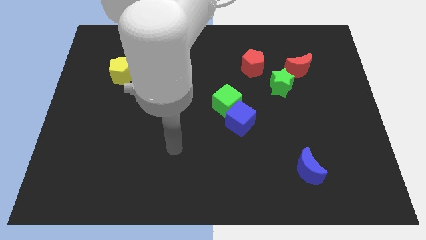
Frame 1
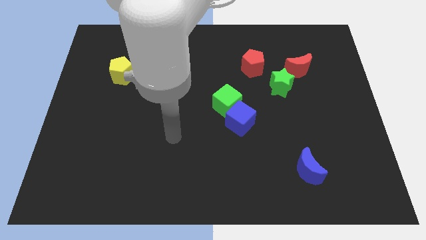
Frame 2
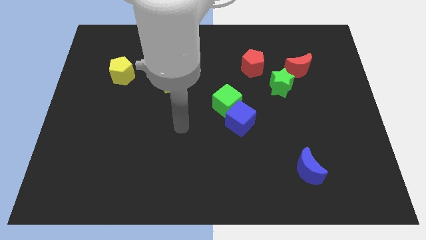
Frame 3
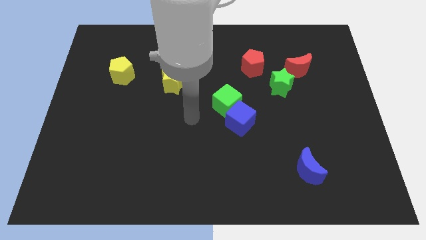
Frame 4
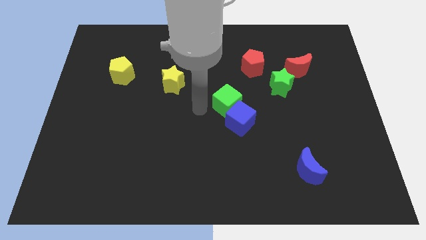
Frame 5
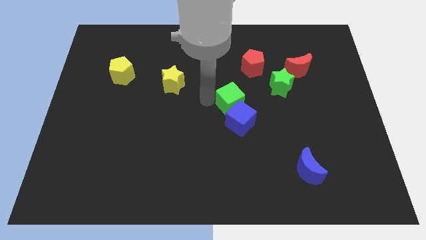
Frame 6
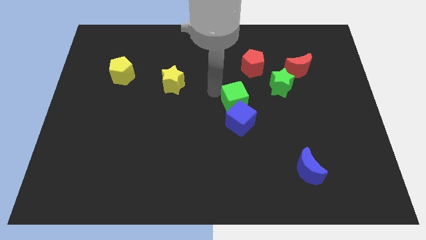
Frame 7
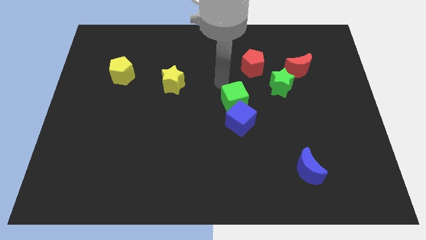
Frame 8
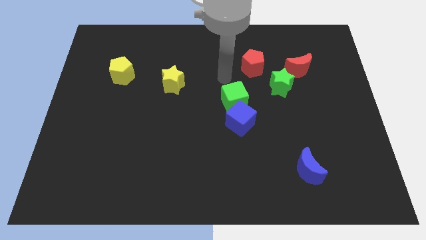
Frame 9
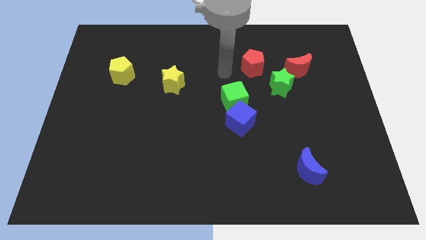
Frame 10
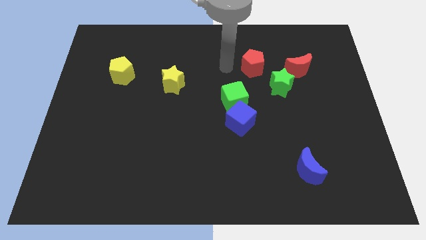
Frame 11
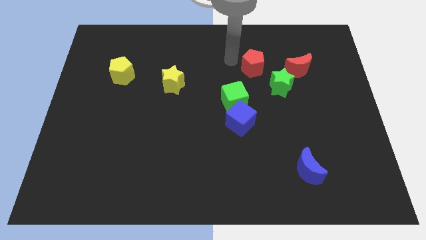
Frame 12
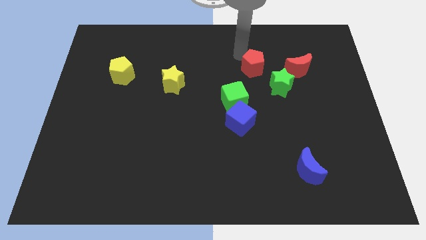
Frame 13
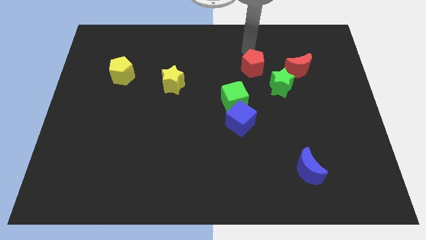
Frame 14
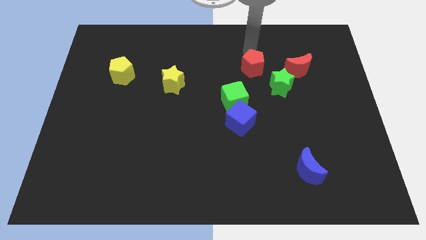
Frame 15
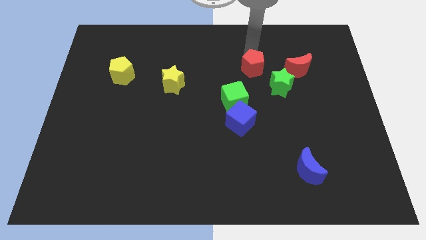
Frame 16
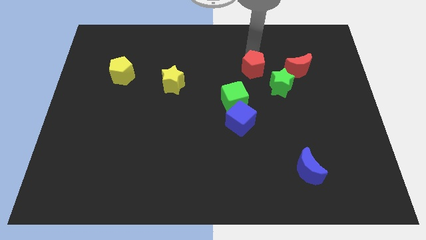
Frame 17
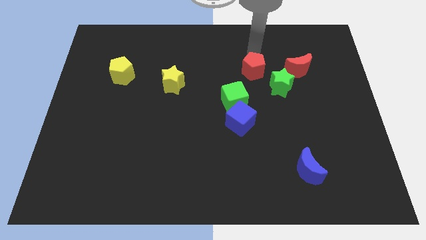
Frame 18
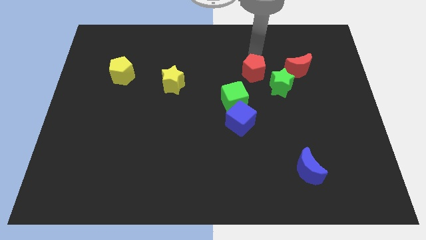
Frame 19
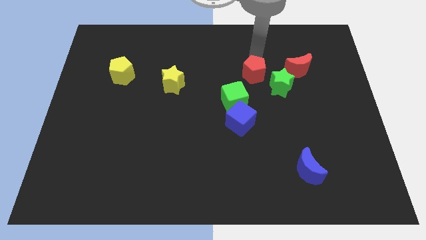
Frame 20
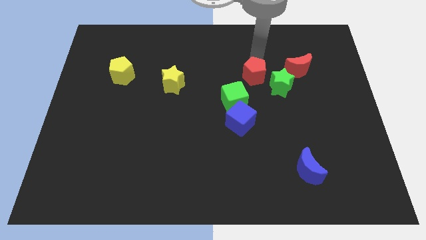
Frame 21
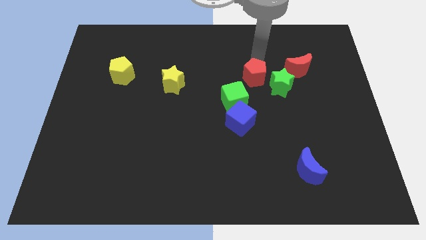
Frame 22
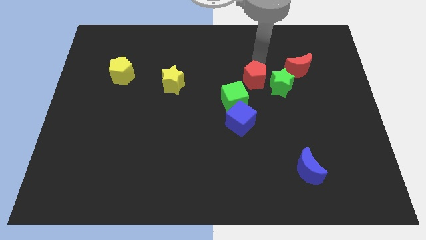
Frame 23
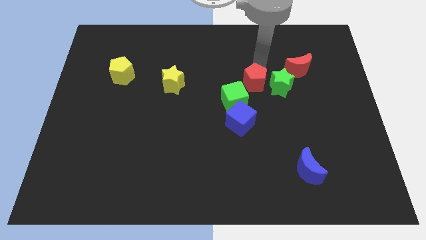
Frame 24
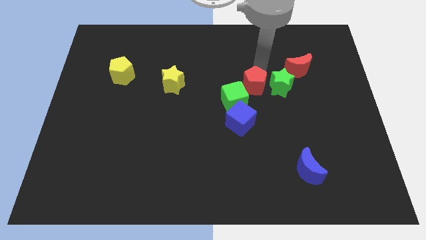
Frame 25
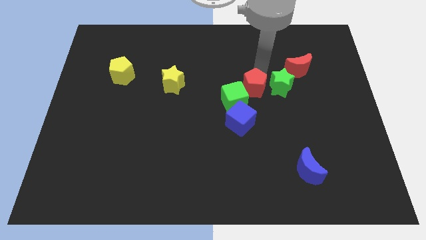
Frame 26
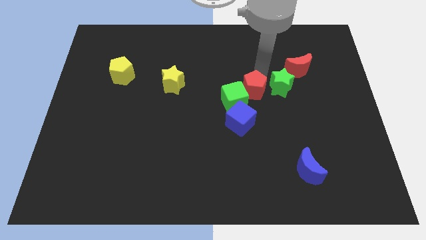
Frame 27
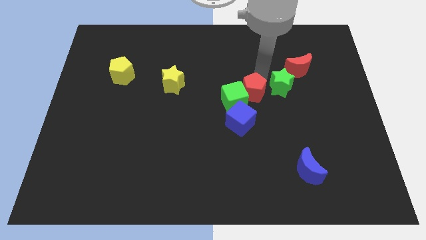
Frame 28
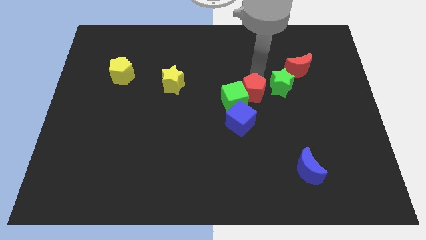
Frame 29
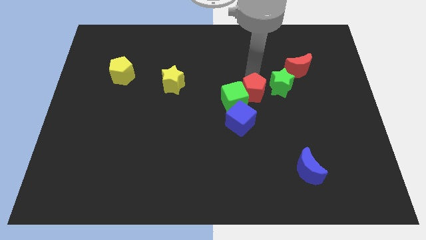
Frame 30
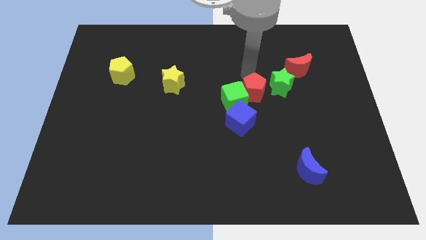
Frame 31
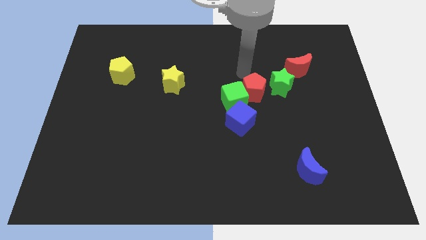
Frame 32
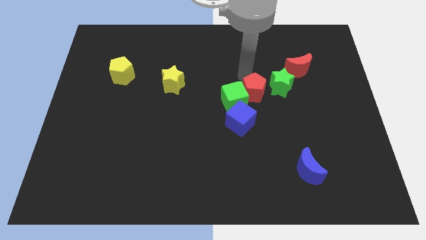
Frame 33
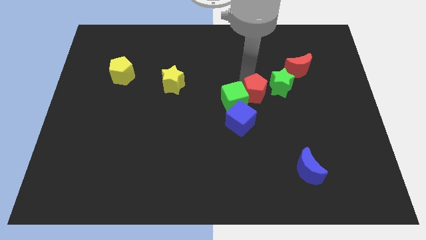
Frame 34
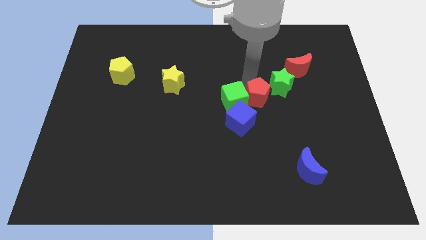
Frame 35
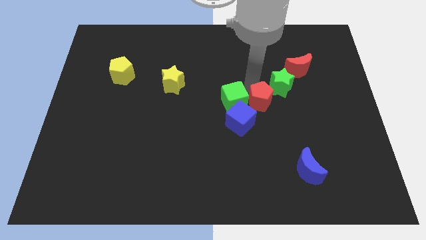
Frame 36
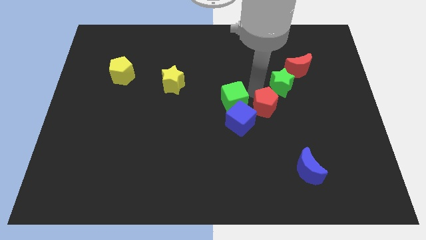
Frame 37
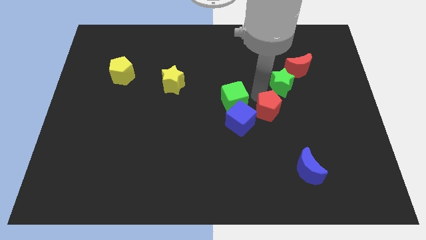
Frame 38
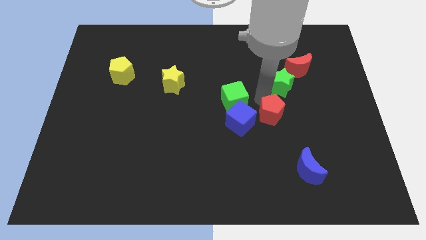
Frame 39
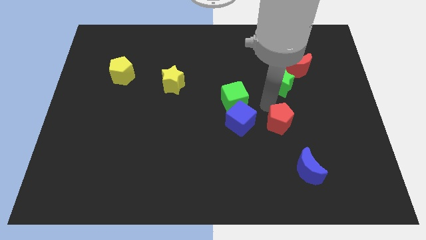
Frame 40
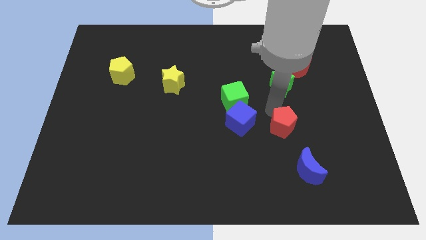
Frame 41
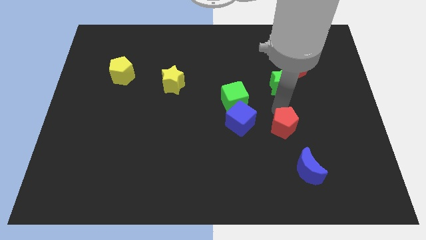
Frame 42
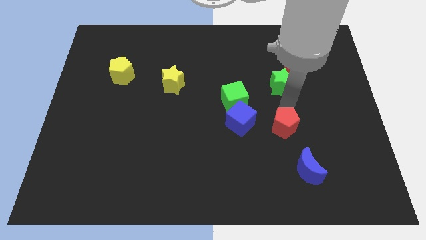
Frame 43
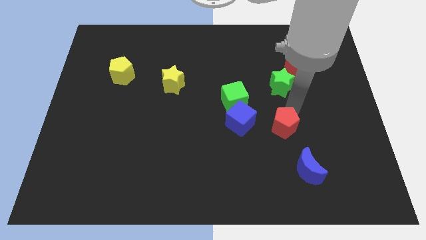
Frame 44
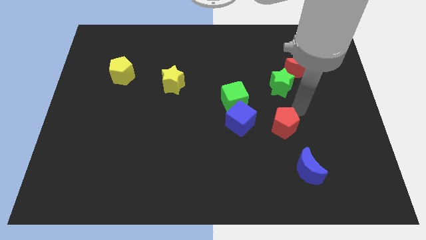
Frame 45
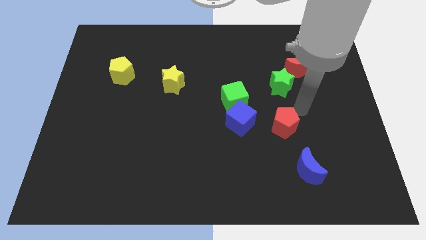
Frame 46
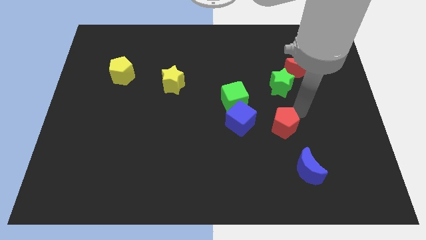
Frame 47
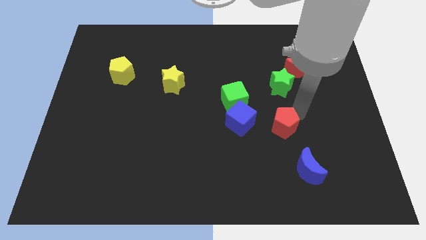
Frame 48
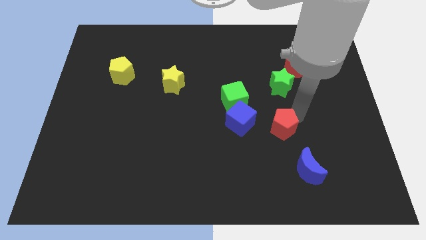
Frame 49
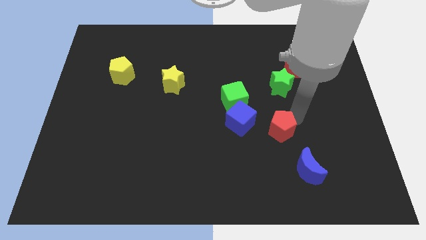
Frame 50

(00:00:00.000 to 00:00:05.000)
push the red pentagon to the bottom right of the blue cube

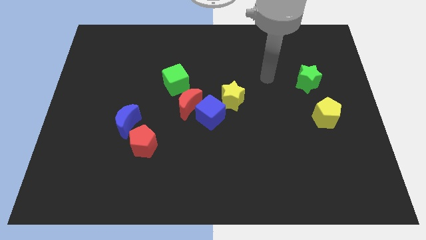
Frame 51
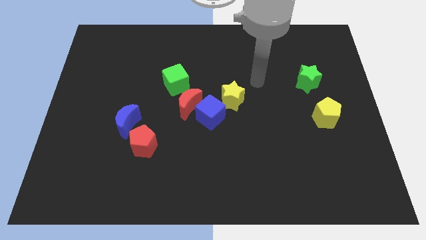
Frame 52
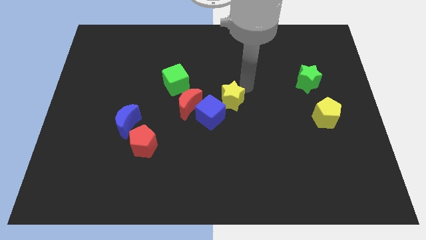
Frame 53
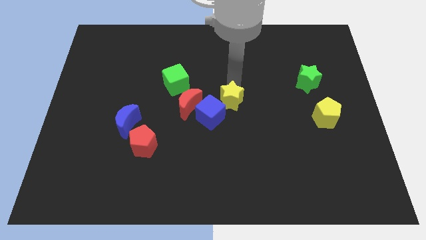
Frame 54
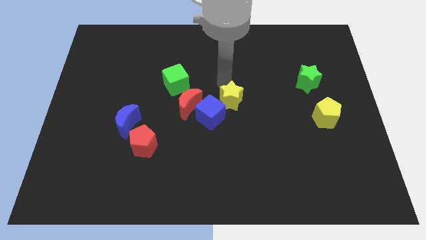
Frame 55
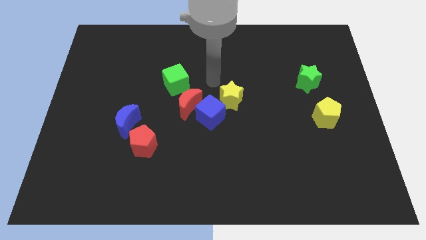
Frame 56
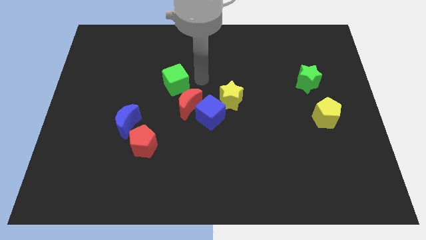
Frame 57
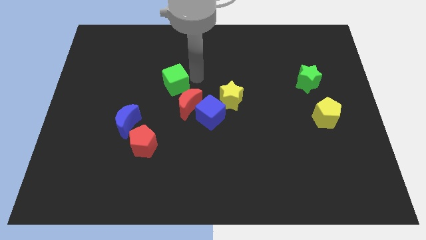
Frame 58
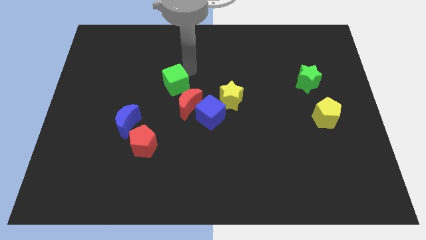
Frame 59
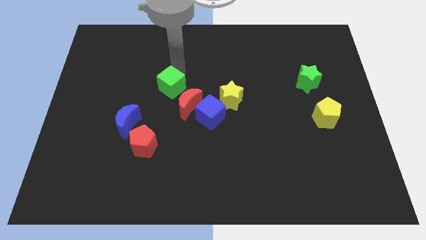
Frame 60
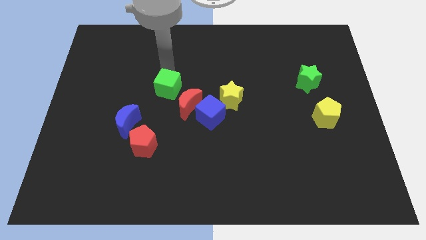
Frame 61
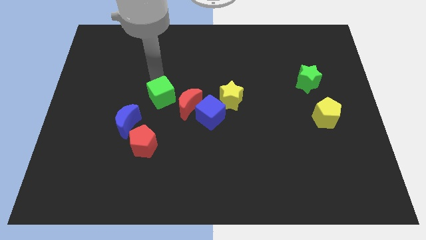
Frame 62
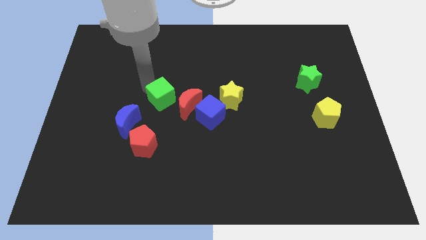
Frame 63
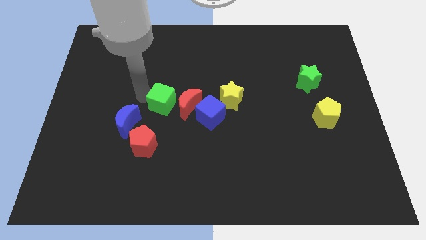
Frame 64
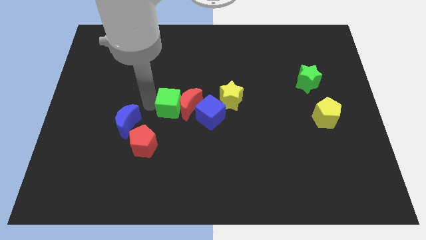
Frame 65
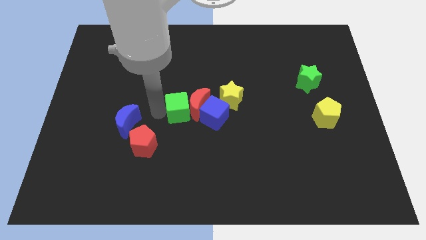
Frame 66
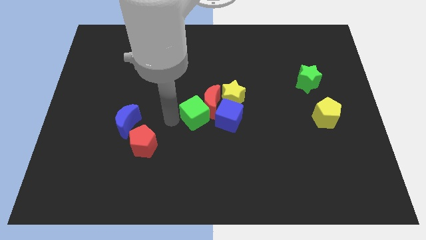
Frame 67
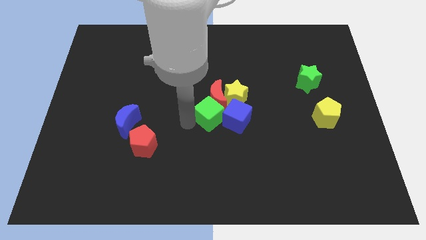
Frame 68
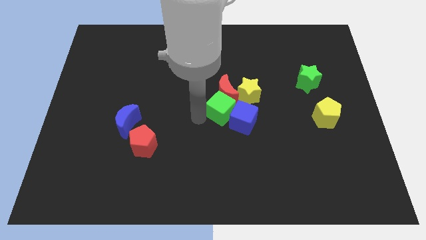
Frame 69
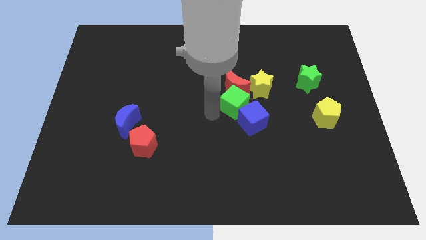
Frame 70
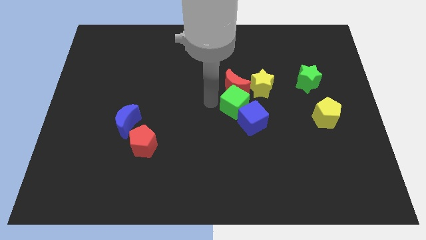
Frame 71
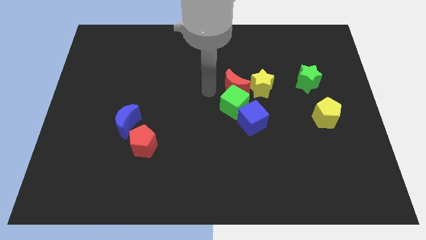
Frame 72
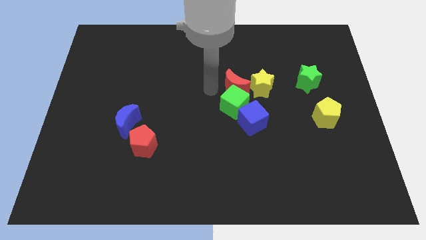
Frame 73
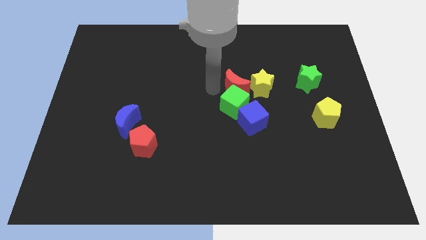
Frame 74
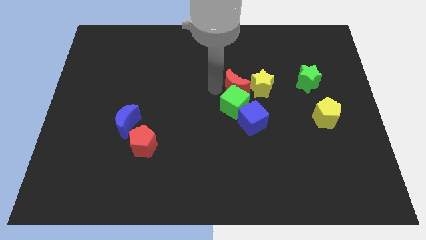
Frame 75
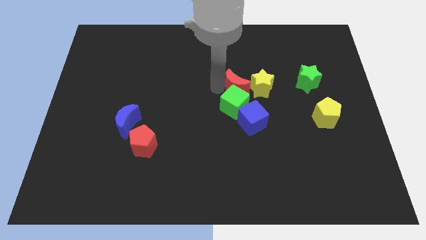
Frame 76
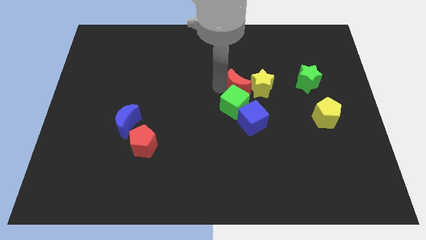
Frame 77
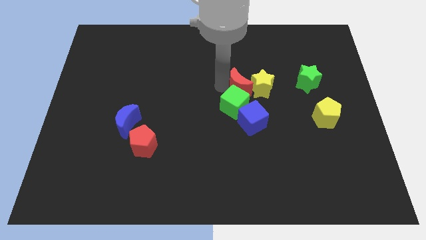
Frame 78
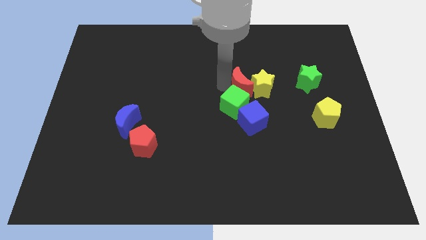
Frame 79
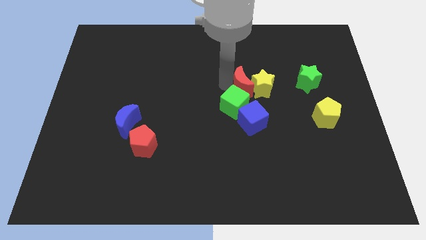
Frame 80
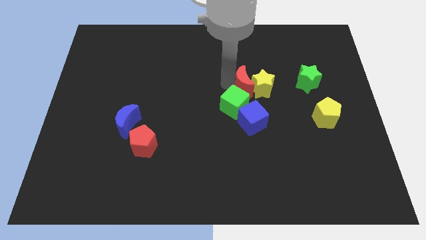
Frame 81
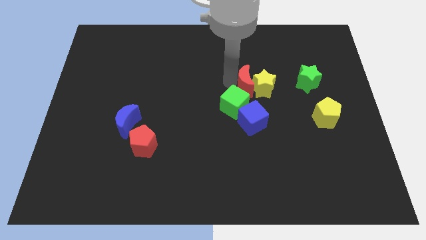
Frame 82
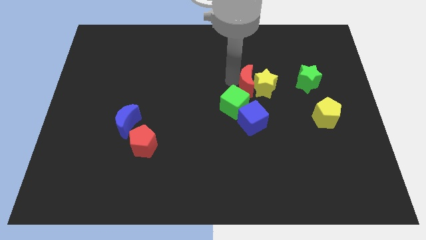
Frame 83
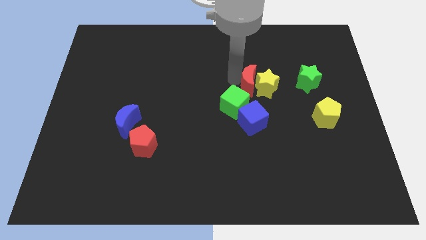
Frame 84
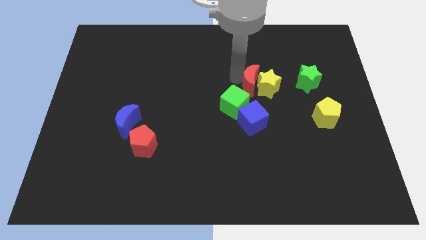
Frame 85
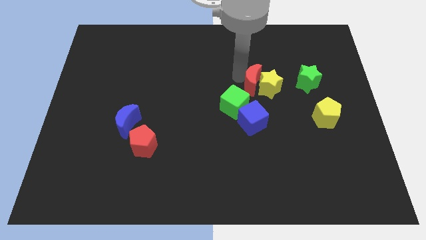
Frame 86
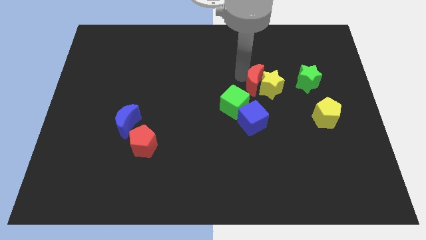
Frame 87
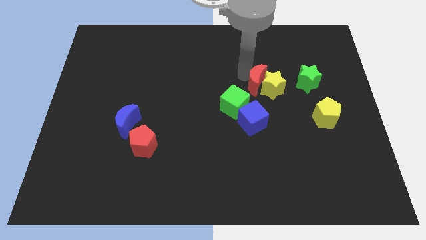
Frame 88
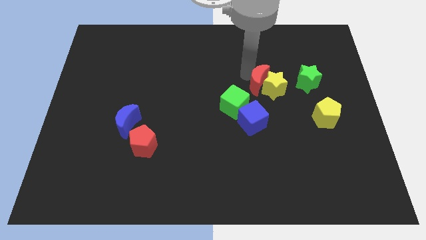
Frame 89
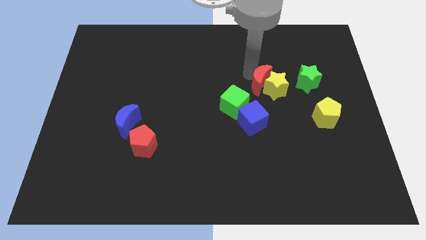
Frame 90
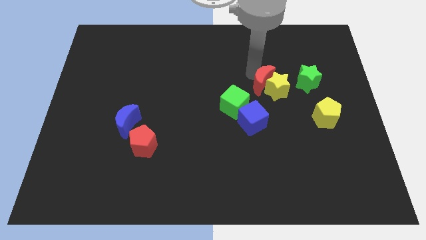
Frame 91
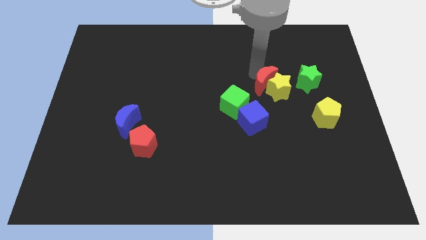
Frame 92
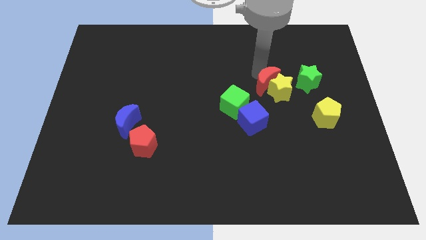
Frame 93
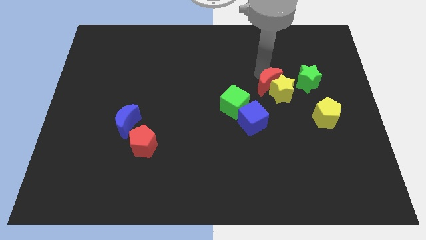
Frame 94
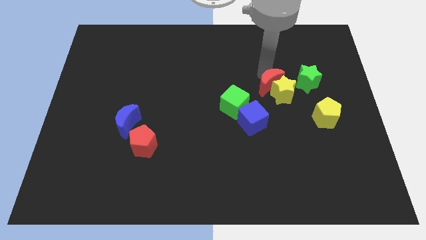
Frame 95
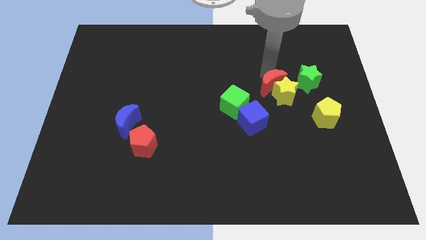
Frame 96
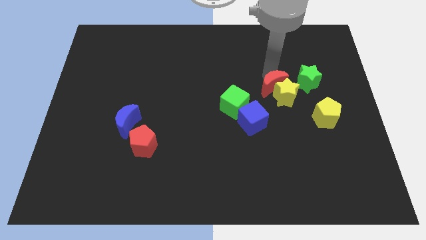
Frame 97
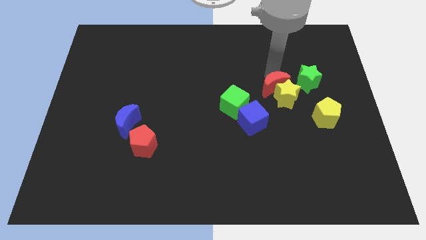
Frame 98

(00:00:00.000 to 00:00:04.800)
move the red moon to the bottom left of the green star
